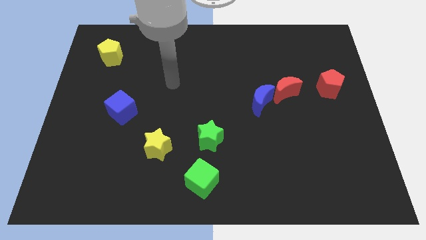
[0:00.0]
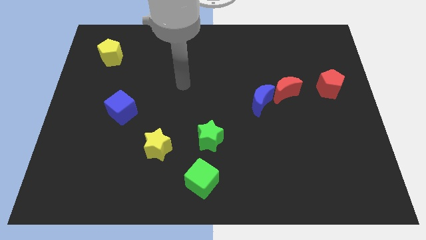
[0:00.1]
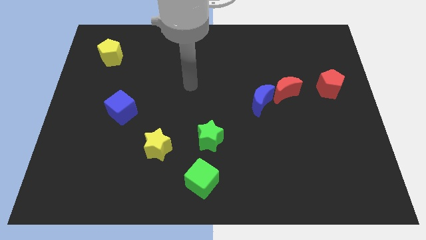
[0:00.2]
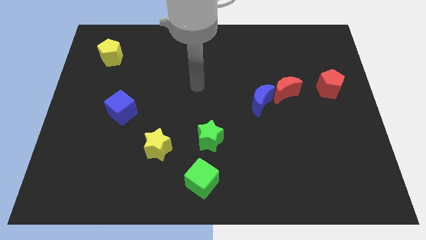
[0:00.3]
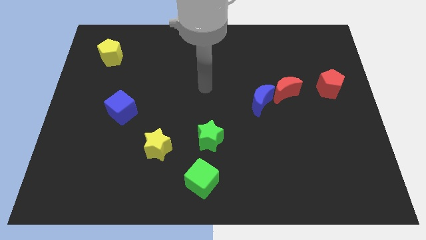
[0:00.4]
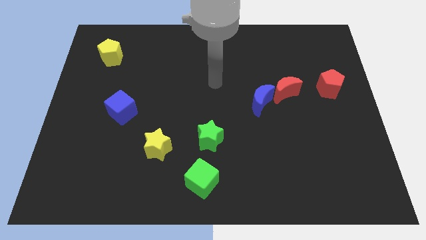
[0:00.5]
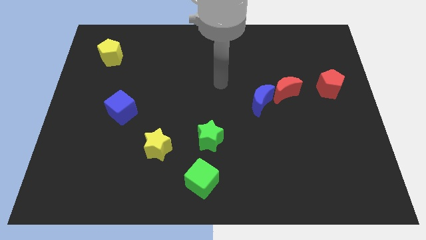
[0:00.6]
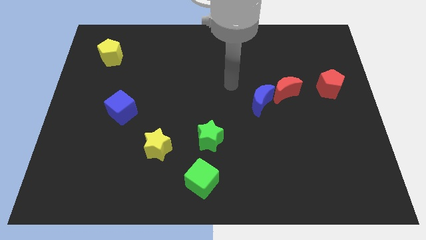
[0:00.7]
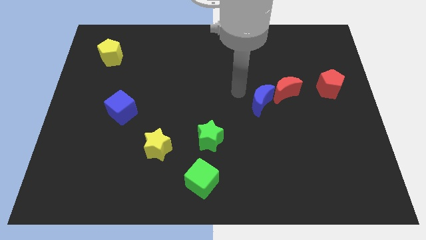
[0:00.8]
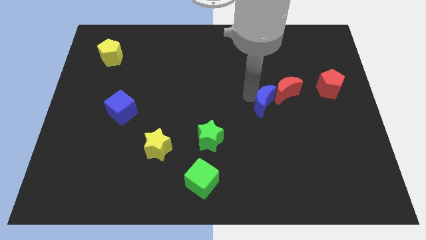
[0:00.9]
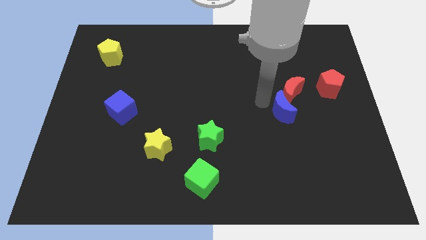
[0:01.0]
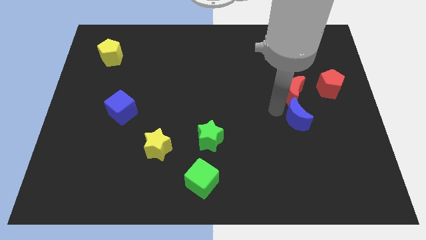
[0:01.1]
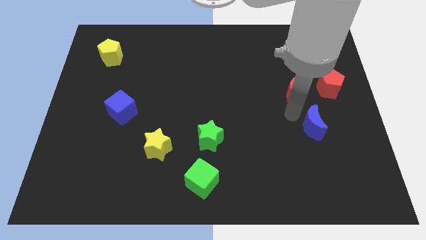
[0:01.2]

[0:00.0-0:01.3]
separate the red moon from the blue moon

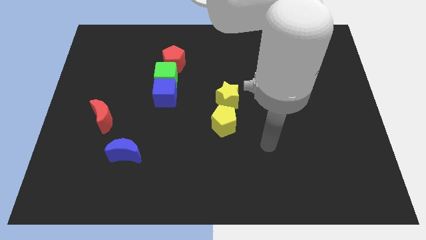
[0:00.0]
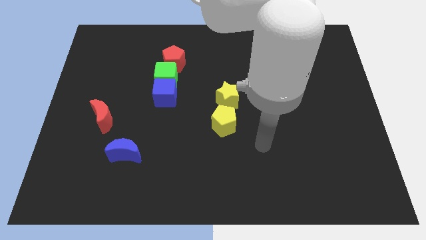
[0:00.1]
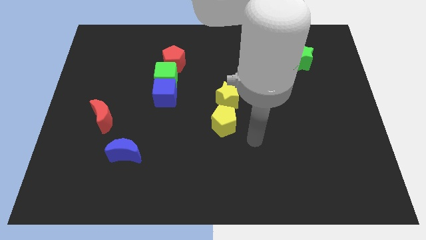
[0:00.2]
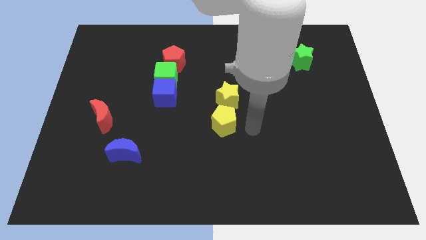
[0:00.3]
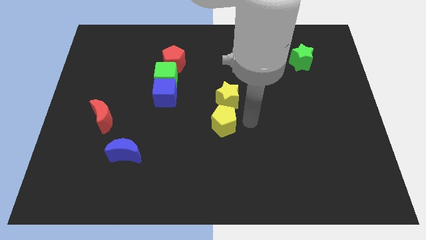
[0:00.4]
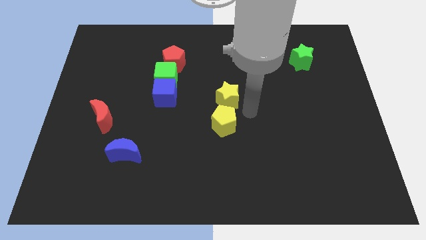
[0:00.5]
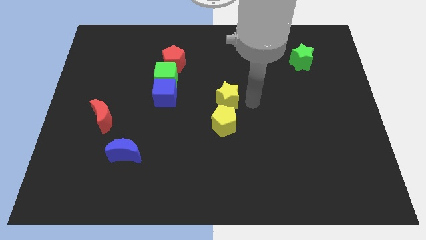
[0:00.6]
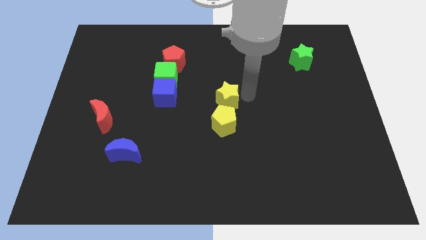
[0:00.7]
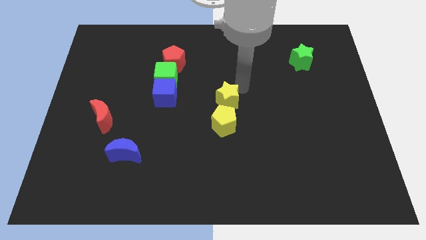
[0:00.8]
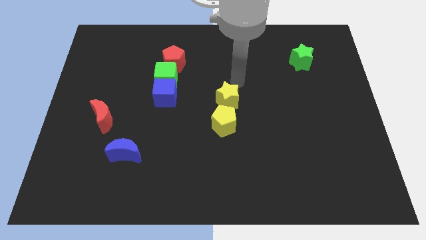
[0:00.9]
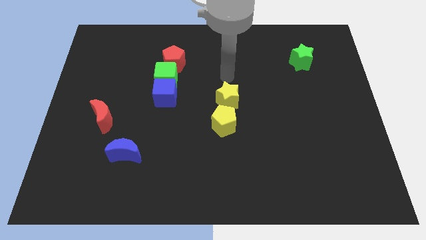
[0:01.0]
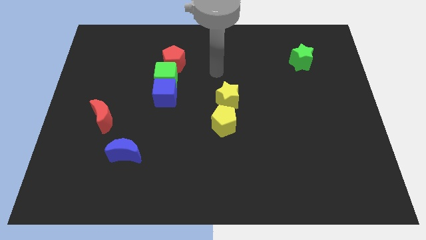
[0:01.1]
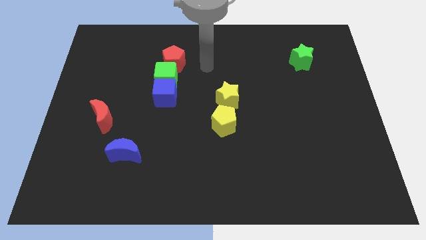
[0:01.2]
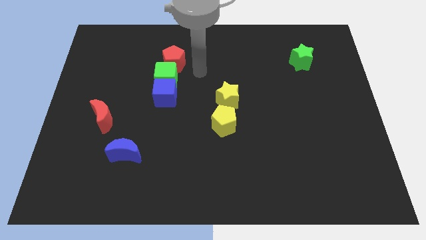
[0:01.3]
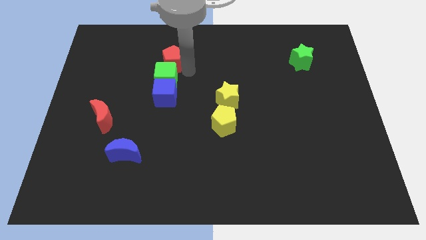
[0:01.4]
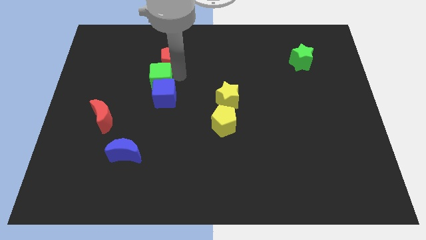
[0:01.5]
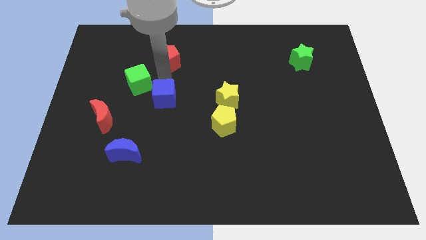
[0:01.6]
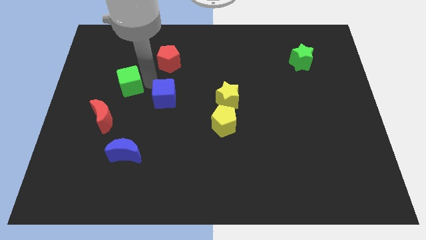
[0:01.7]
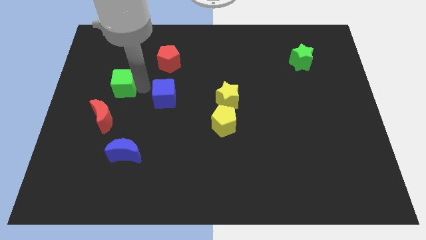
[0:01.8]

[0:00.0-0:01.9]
pull the blue cube apart from the green cube

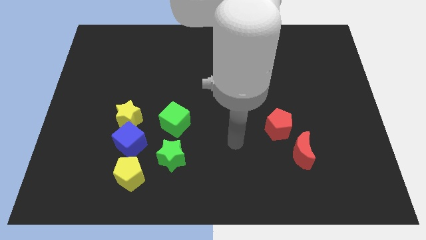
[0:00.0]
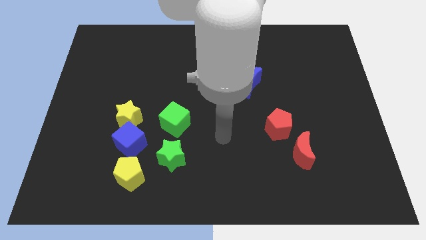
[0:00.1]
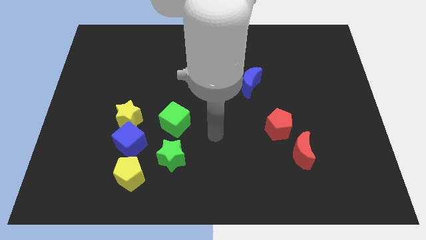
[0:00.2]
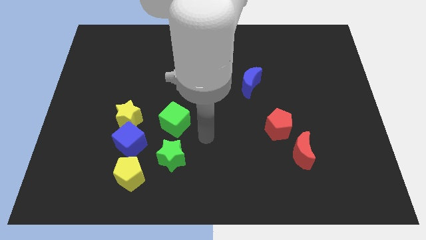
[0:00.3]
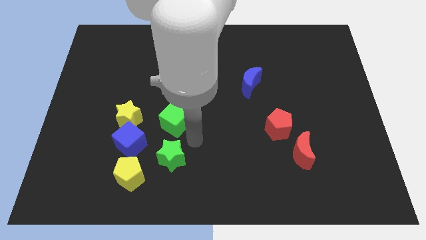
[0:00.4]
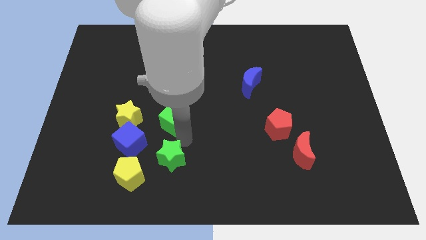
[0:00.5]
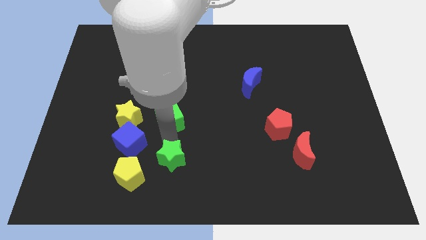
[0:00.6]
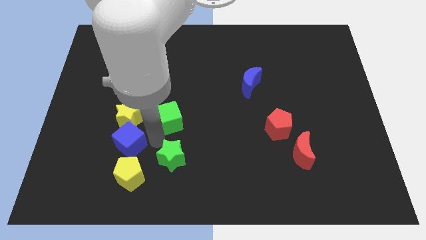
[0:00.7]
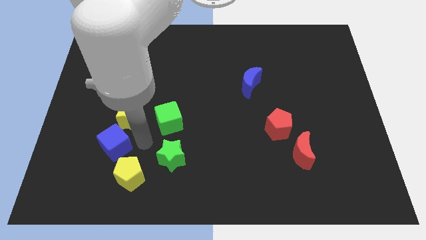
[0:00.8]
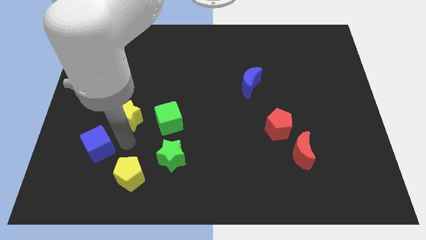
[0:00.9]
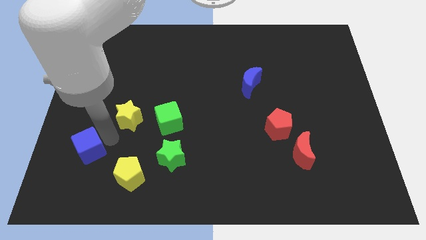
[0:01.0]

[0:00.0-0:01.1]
separate the yellow star from the blue cube

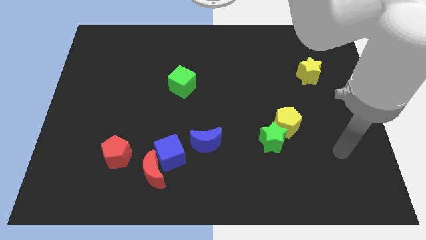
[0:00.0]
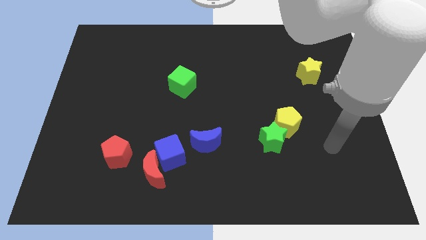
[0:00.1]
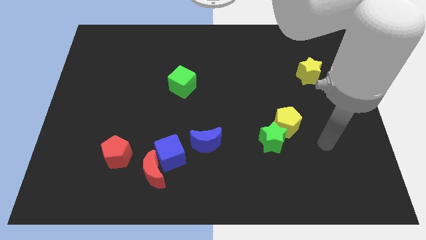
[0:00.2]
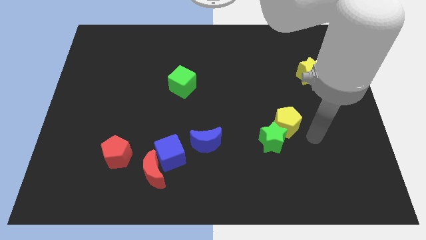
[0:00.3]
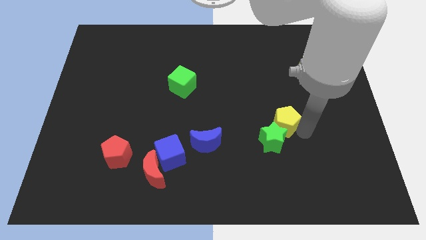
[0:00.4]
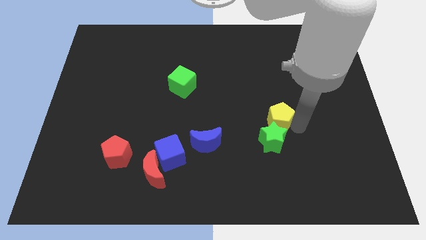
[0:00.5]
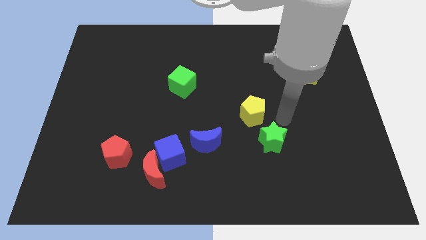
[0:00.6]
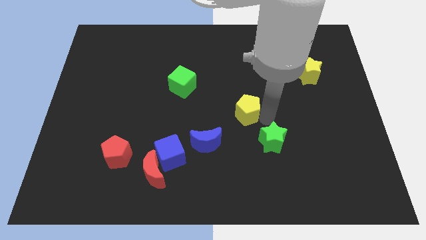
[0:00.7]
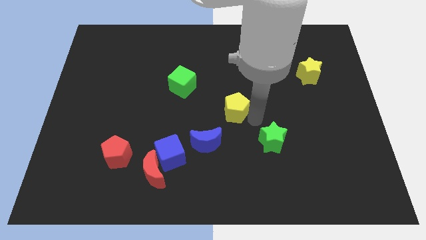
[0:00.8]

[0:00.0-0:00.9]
move the green star away from the yellow pentagon

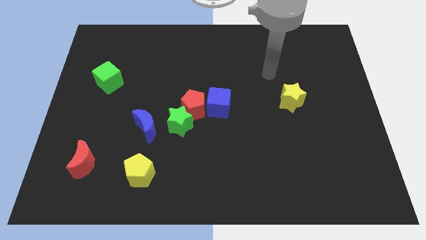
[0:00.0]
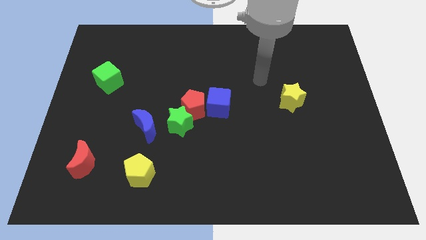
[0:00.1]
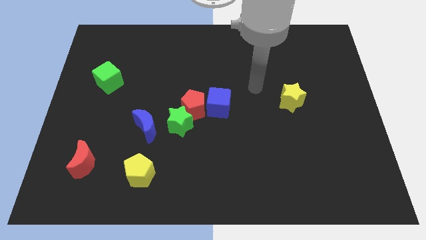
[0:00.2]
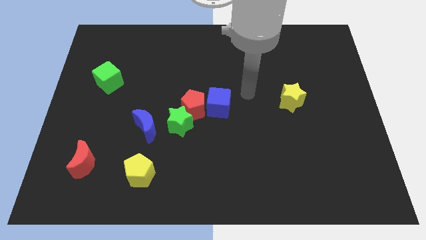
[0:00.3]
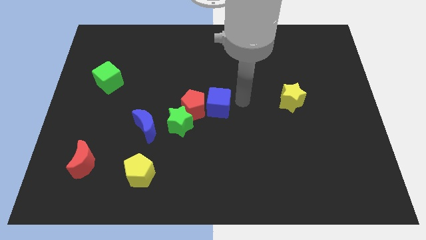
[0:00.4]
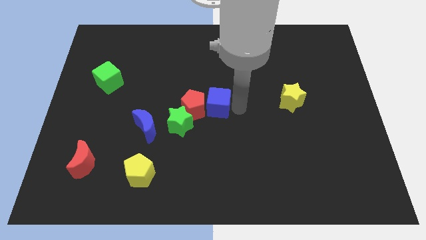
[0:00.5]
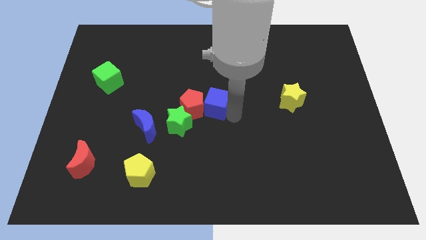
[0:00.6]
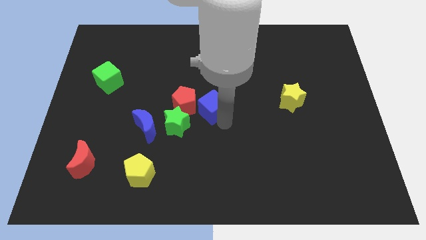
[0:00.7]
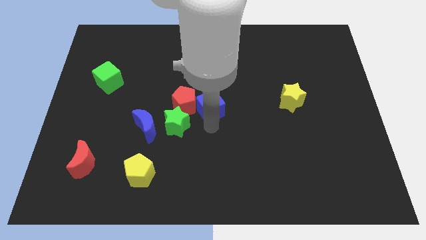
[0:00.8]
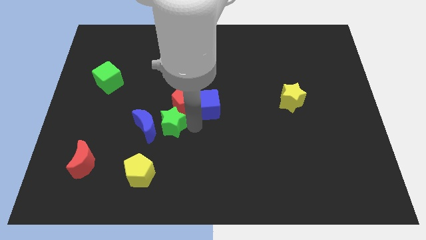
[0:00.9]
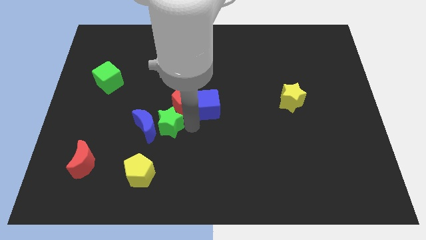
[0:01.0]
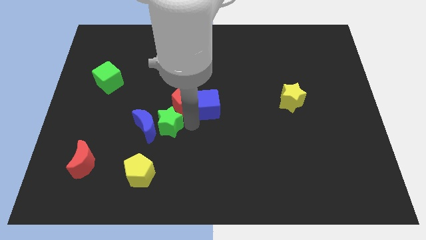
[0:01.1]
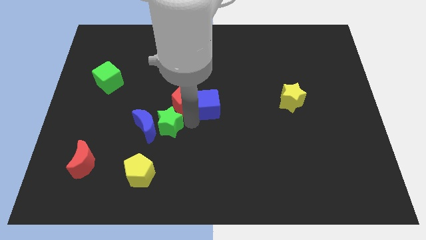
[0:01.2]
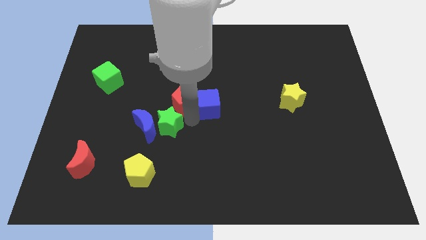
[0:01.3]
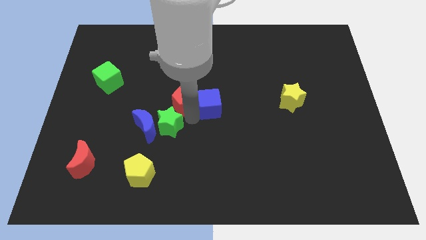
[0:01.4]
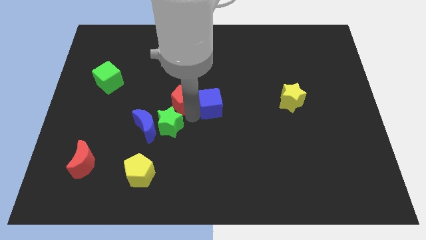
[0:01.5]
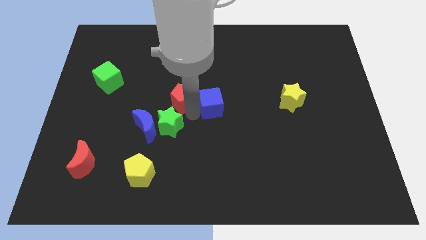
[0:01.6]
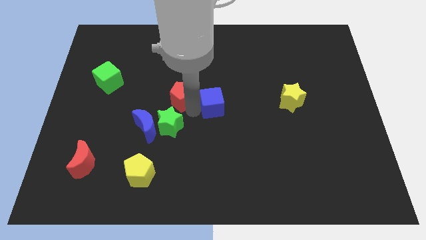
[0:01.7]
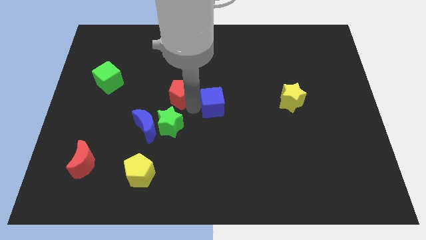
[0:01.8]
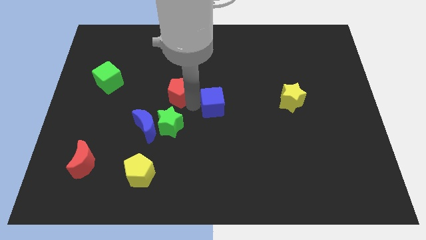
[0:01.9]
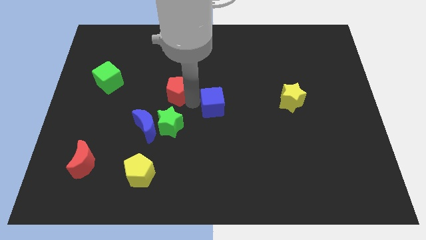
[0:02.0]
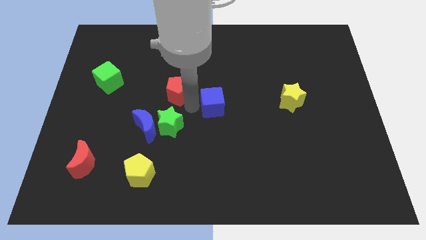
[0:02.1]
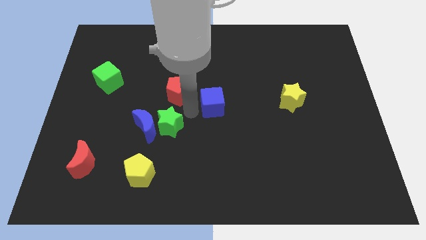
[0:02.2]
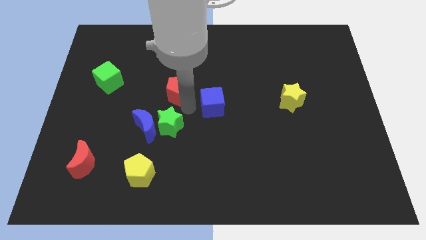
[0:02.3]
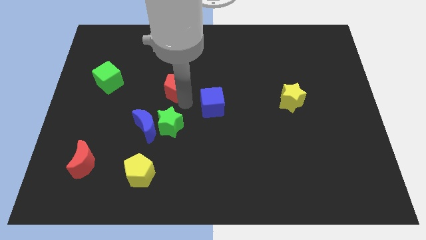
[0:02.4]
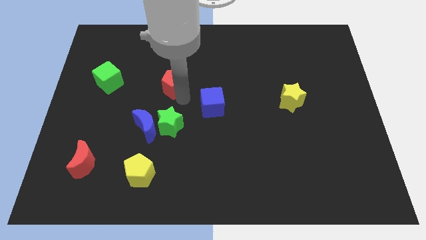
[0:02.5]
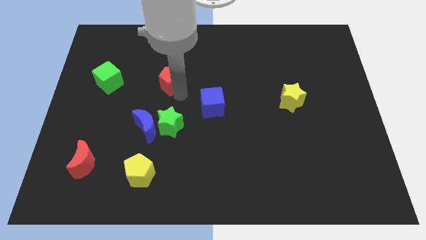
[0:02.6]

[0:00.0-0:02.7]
separate the red pentagon from the green star and blue cube

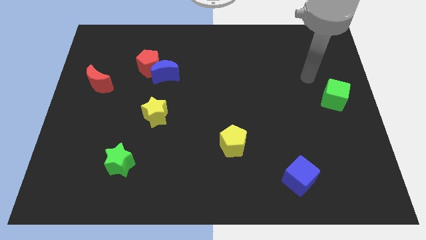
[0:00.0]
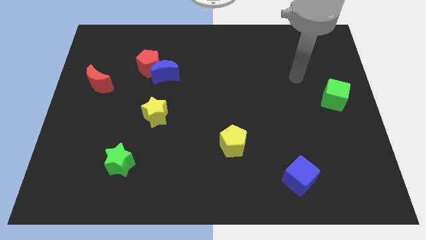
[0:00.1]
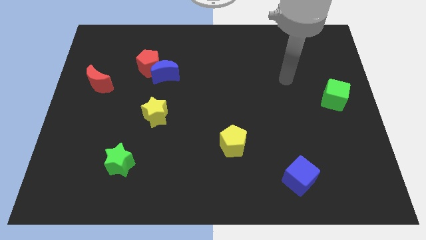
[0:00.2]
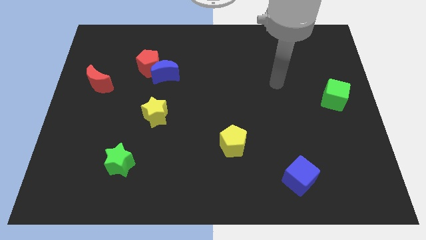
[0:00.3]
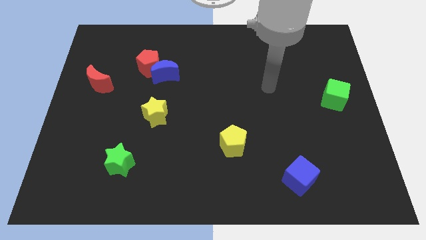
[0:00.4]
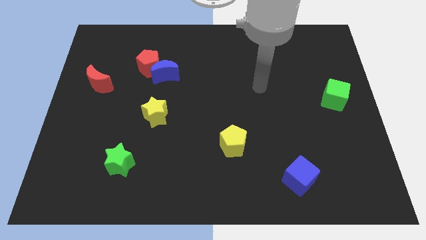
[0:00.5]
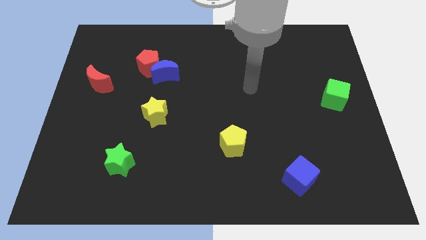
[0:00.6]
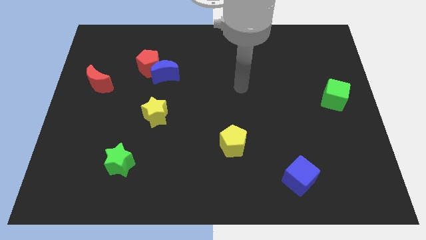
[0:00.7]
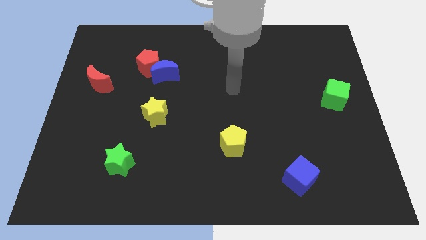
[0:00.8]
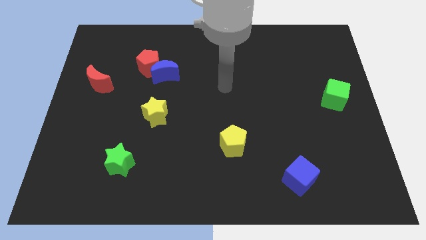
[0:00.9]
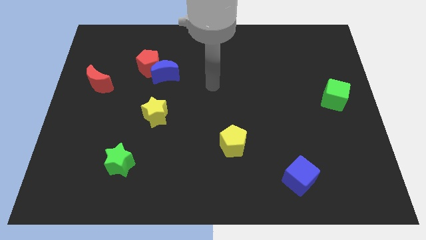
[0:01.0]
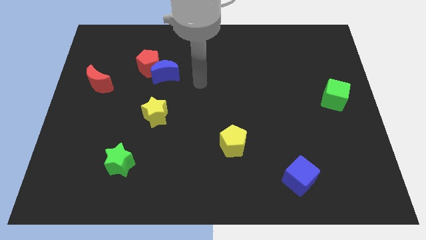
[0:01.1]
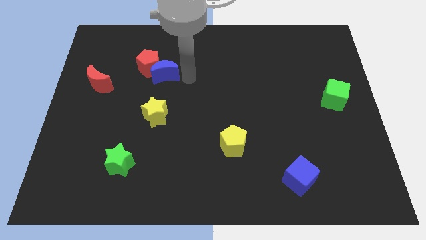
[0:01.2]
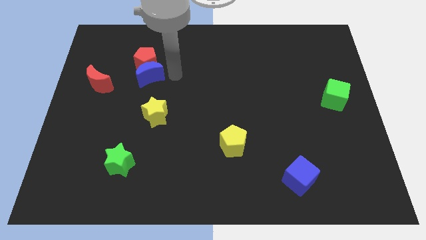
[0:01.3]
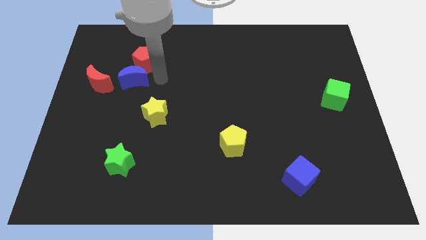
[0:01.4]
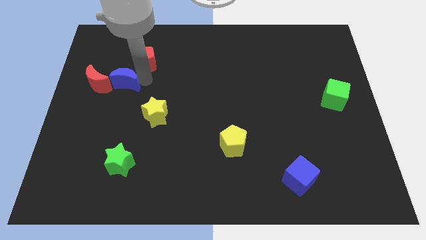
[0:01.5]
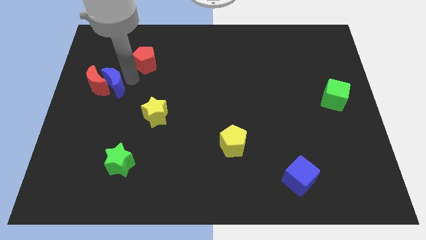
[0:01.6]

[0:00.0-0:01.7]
move the red pentagon away from the blue moon
